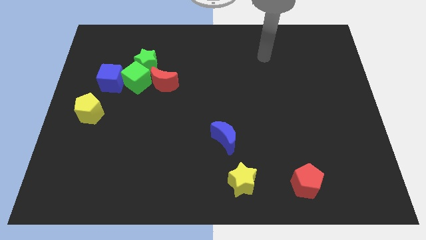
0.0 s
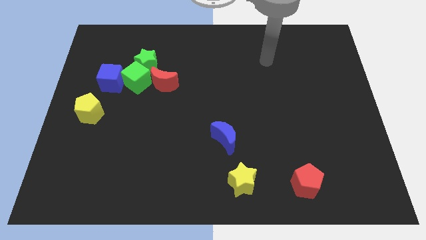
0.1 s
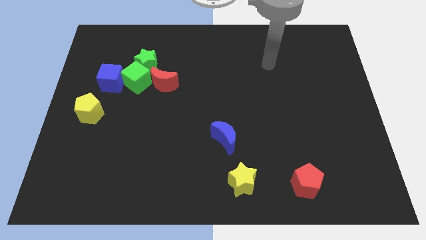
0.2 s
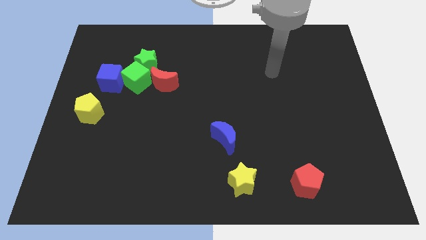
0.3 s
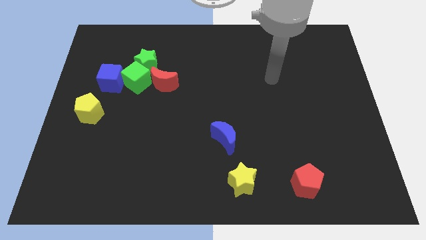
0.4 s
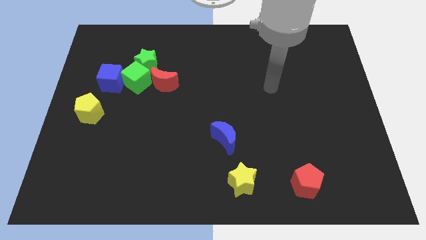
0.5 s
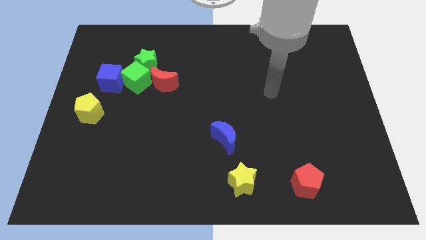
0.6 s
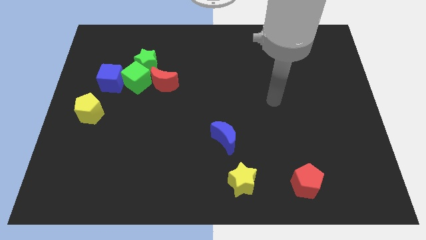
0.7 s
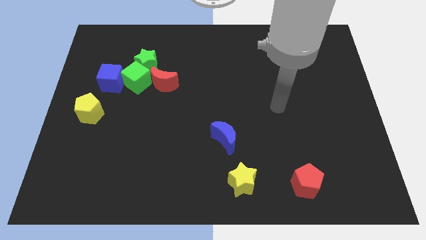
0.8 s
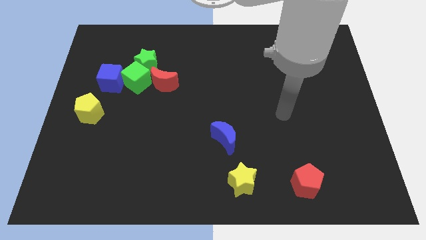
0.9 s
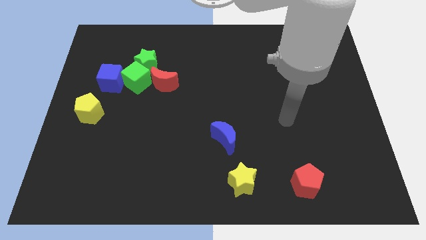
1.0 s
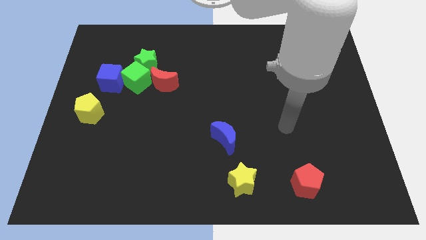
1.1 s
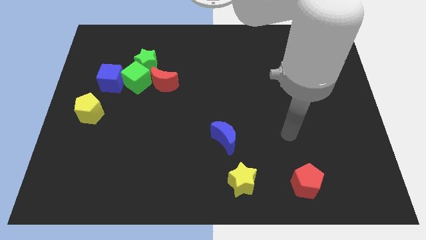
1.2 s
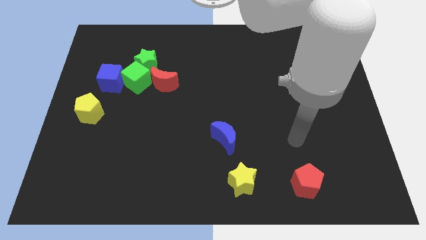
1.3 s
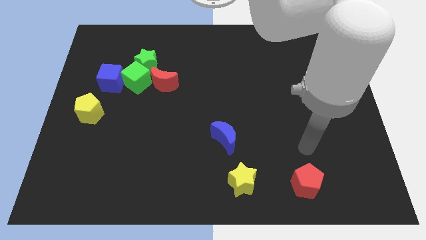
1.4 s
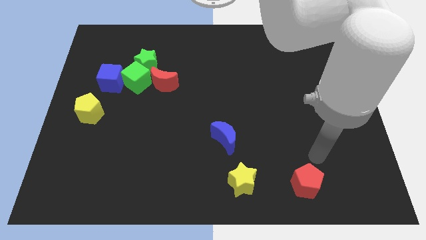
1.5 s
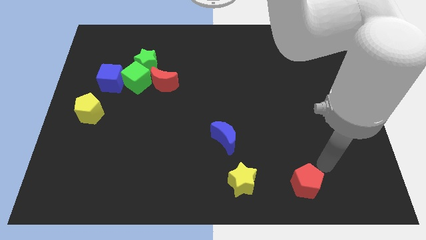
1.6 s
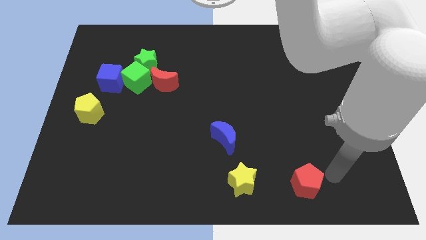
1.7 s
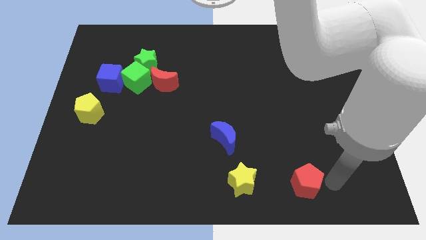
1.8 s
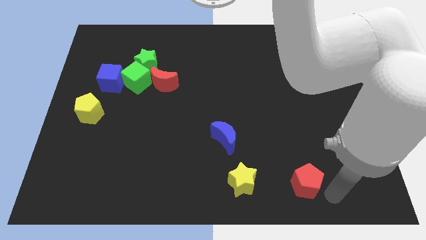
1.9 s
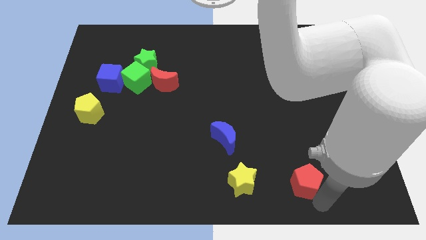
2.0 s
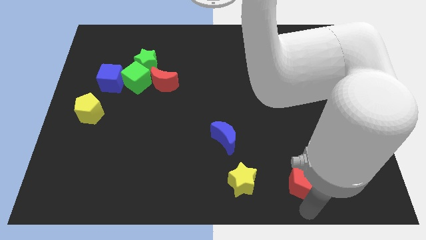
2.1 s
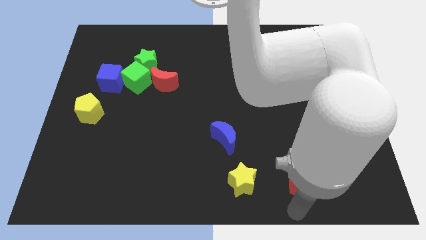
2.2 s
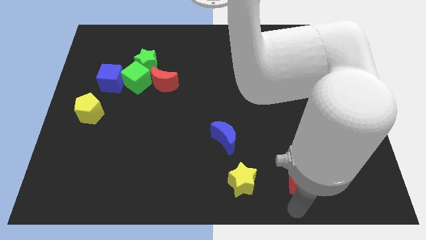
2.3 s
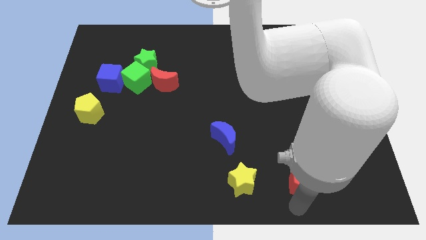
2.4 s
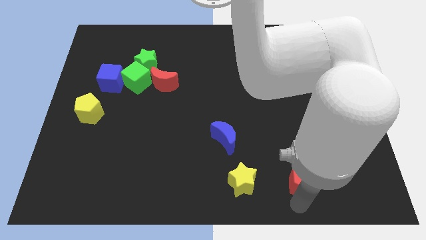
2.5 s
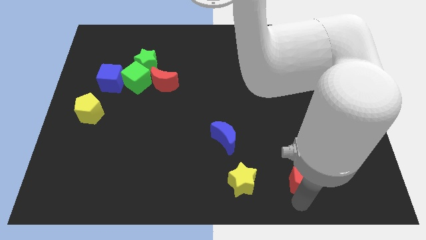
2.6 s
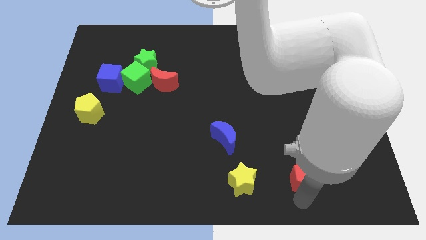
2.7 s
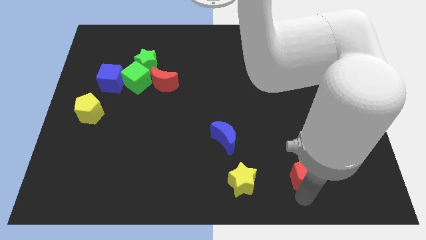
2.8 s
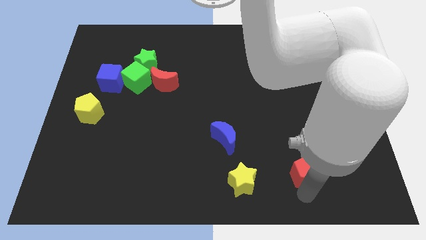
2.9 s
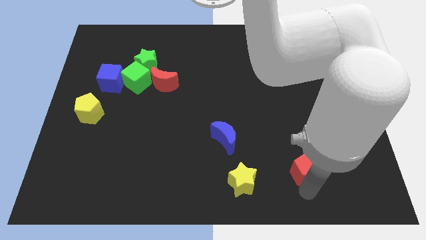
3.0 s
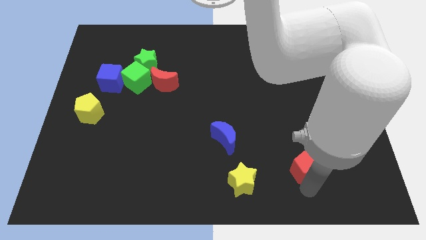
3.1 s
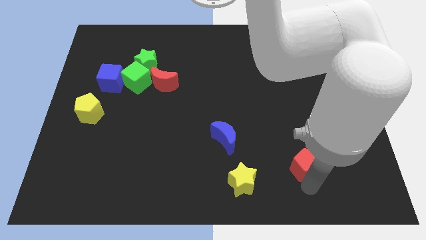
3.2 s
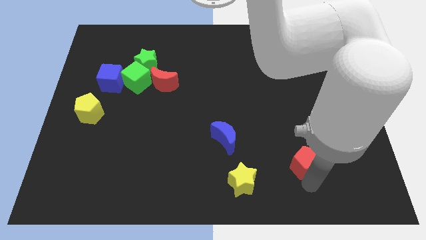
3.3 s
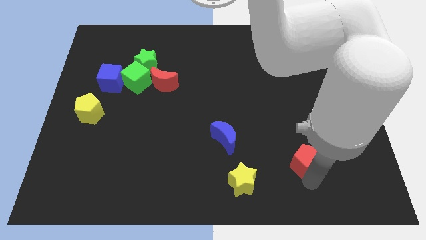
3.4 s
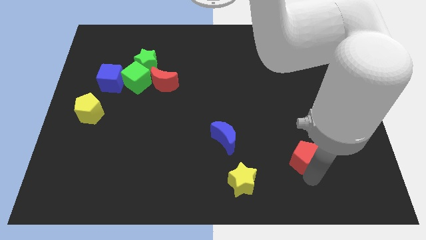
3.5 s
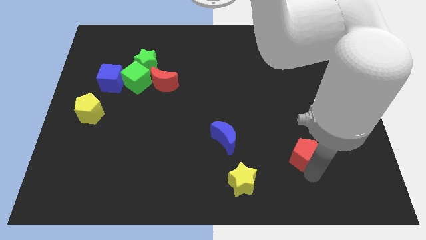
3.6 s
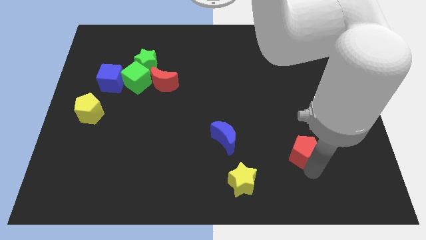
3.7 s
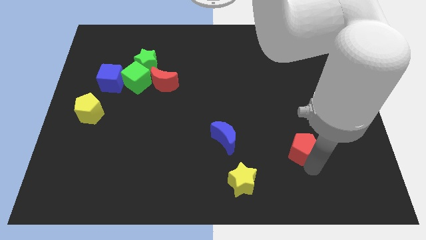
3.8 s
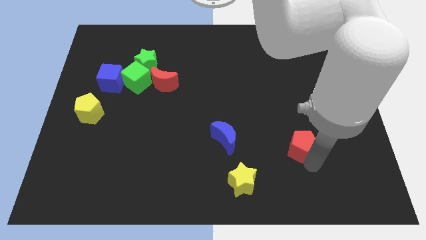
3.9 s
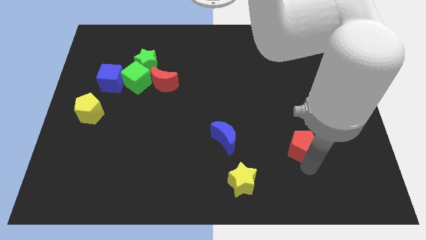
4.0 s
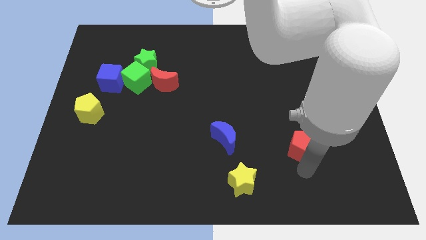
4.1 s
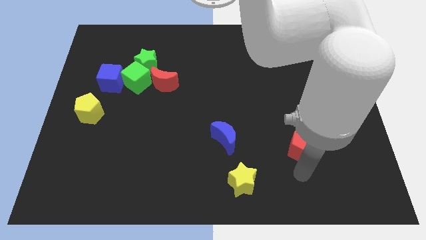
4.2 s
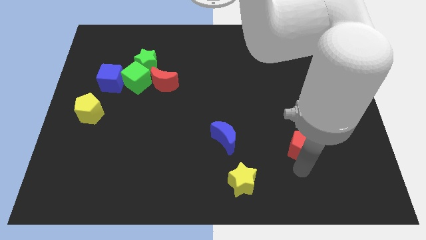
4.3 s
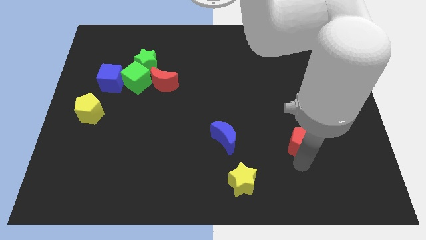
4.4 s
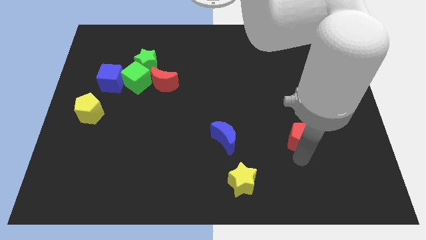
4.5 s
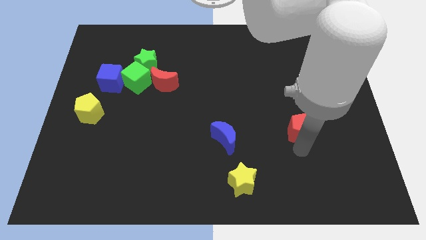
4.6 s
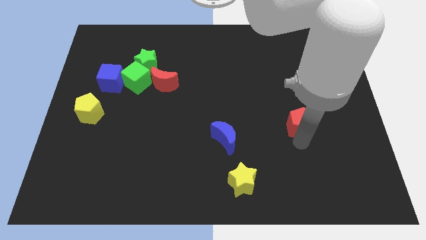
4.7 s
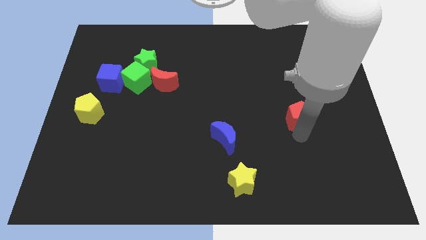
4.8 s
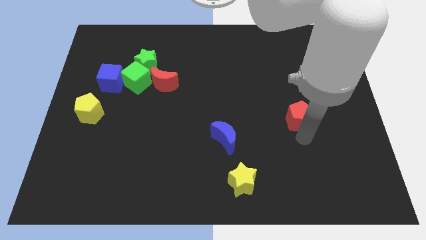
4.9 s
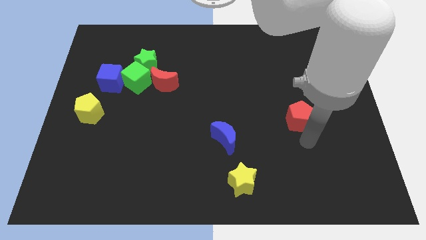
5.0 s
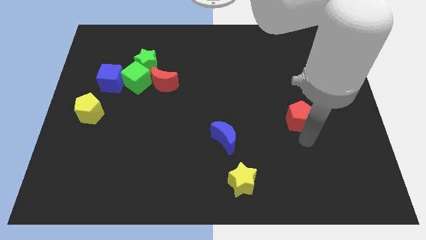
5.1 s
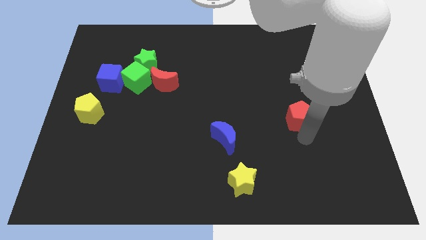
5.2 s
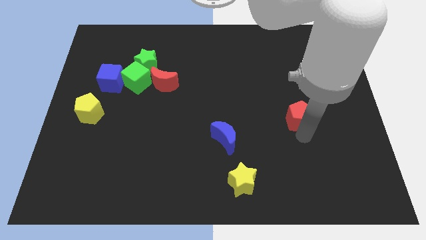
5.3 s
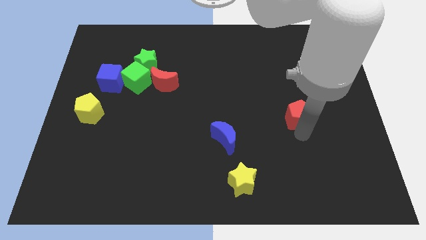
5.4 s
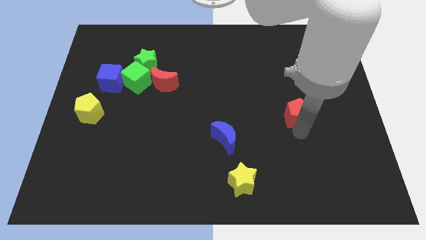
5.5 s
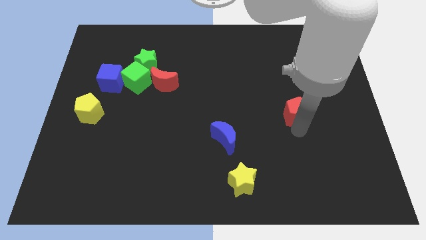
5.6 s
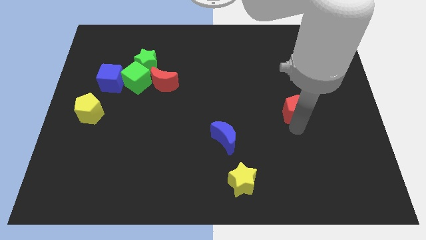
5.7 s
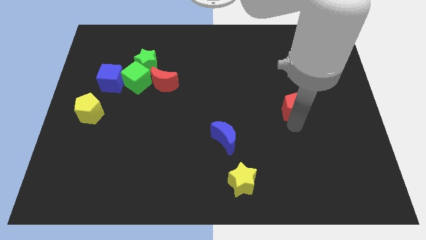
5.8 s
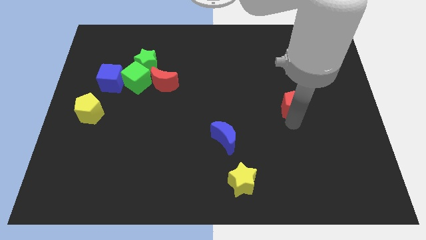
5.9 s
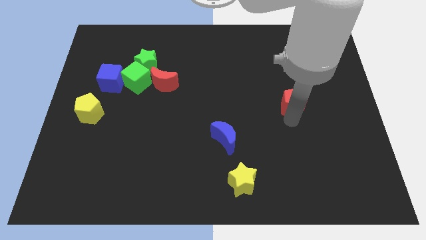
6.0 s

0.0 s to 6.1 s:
slide the red pentagon up

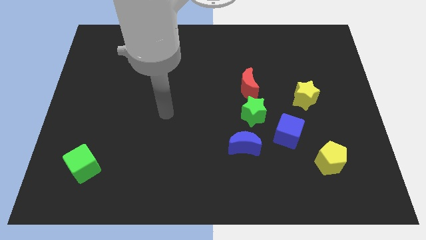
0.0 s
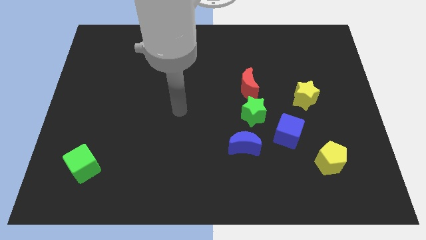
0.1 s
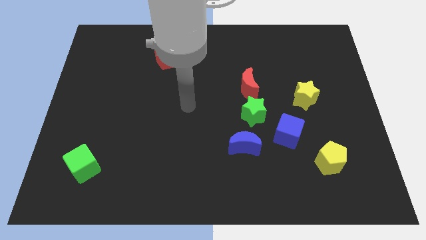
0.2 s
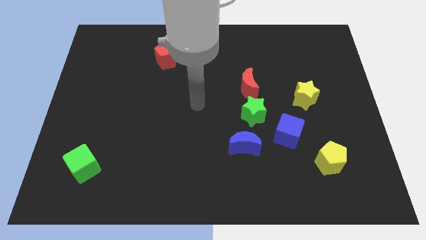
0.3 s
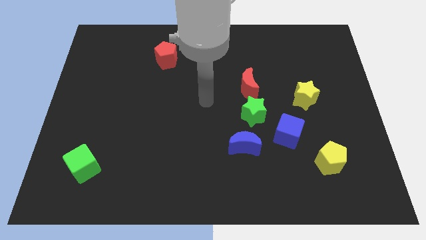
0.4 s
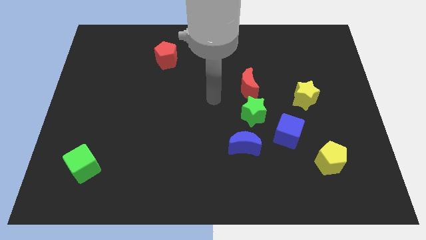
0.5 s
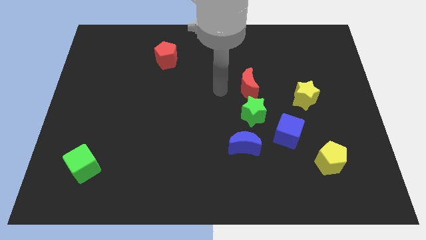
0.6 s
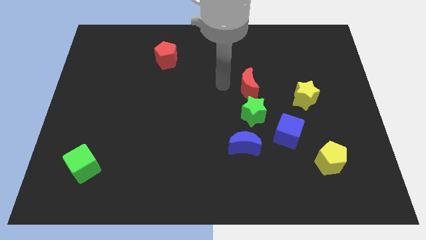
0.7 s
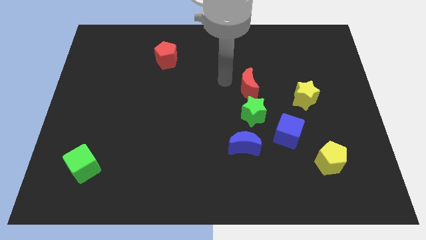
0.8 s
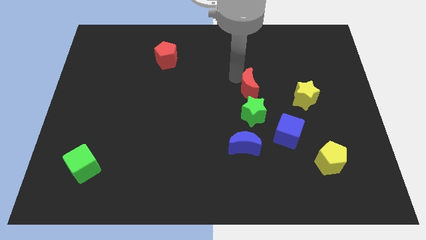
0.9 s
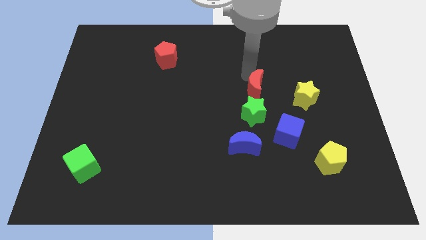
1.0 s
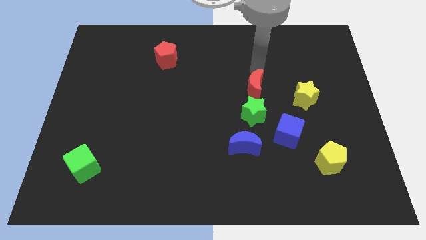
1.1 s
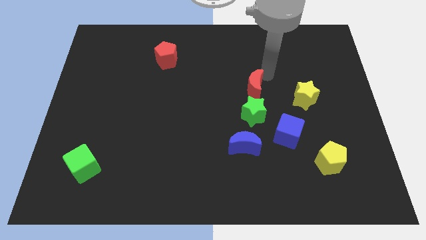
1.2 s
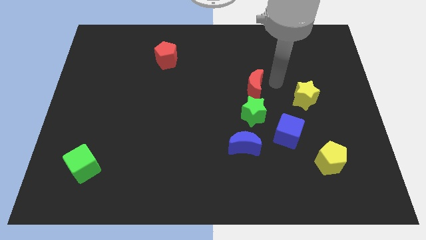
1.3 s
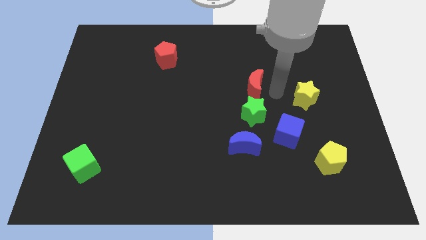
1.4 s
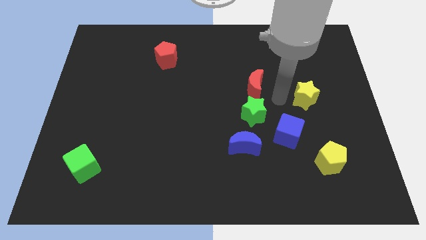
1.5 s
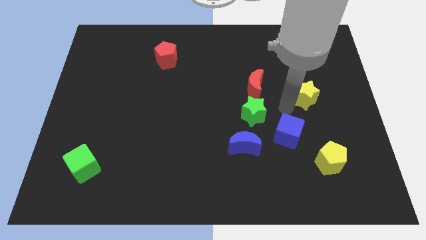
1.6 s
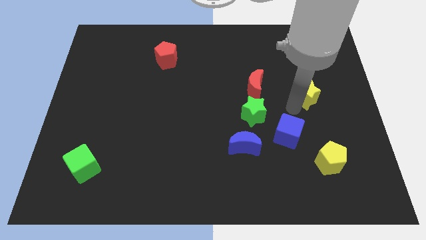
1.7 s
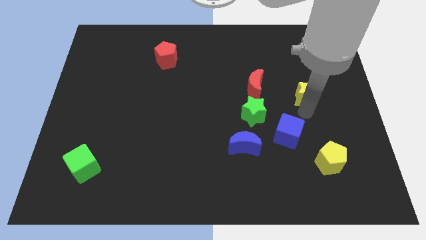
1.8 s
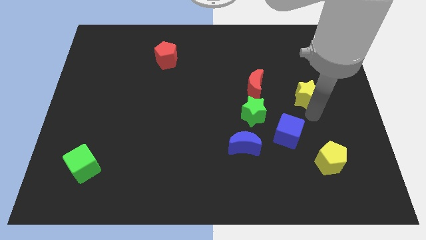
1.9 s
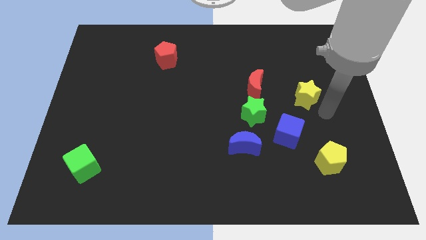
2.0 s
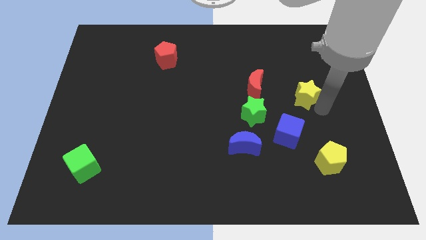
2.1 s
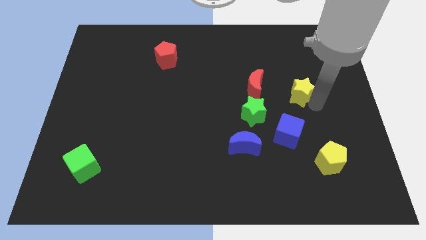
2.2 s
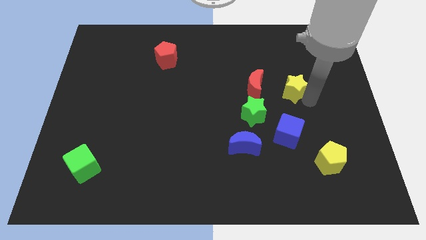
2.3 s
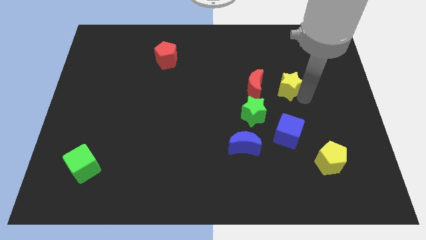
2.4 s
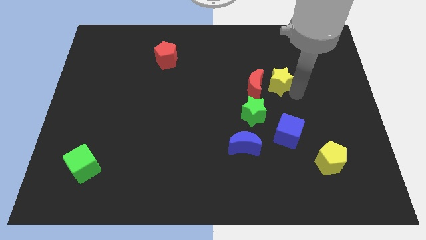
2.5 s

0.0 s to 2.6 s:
slide the yellow star up and to the left diagonally somewhat
